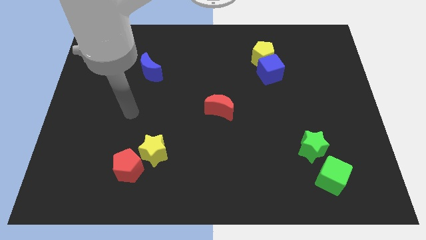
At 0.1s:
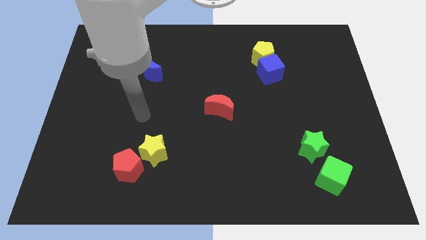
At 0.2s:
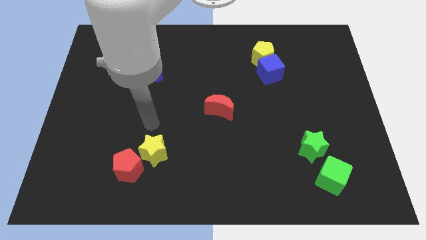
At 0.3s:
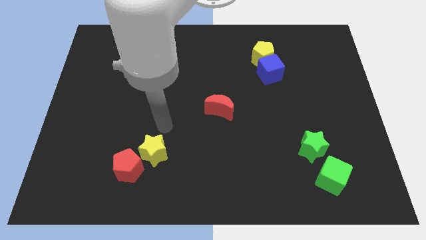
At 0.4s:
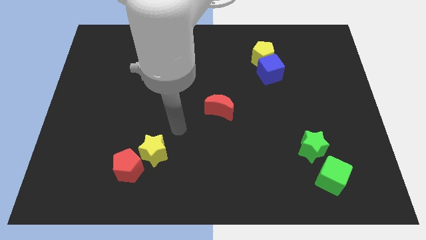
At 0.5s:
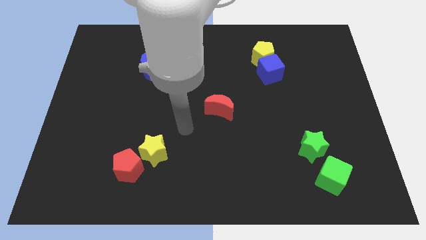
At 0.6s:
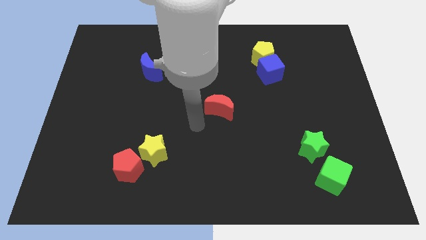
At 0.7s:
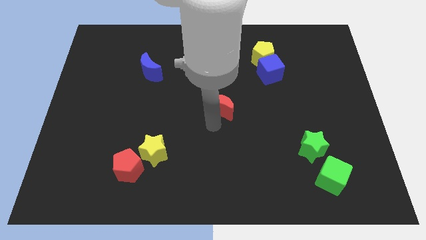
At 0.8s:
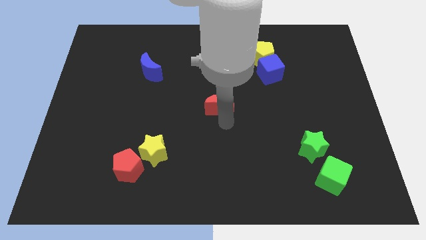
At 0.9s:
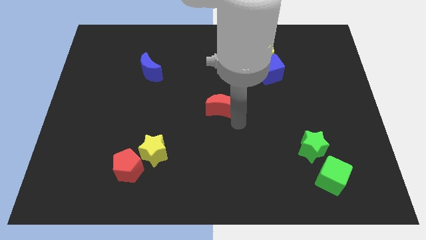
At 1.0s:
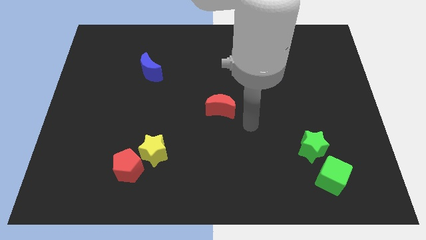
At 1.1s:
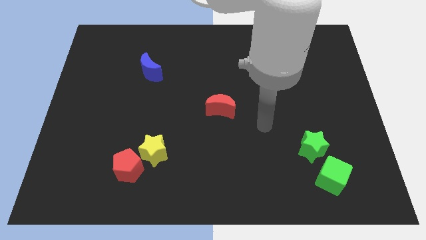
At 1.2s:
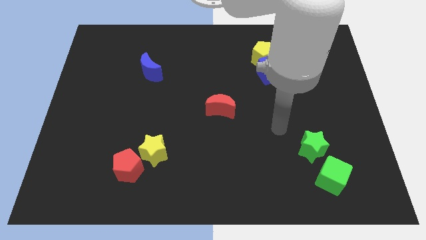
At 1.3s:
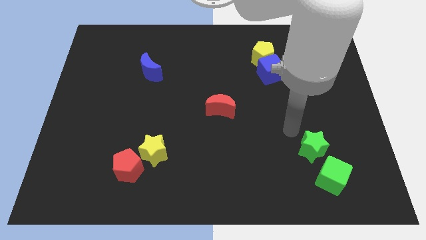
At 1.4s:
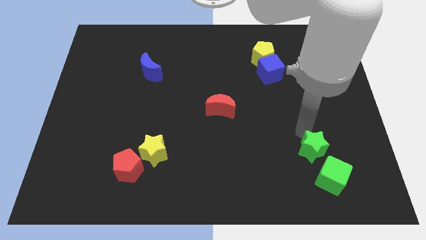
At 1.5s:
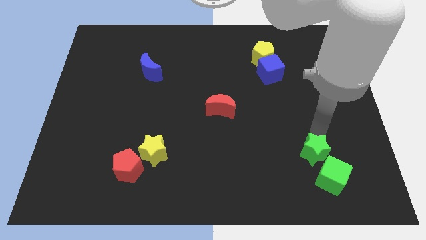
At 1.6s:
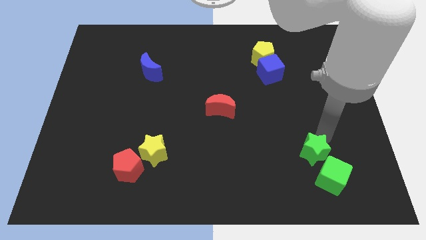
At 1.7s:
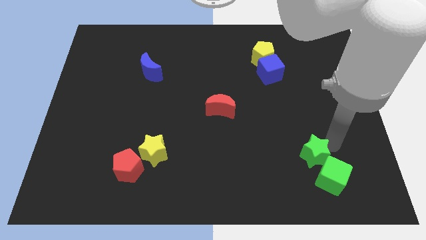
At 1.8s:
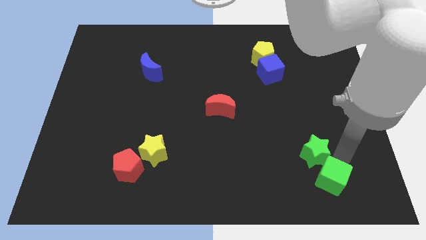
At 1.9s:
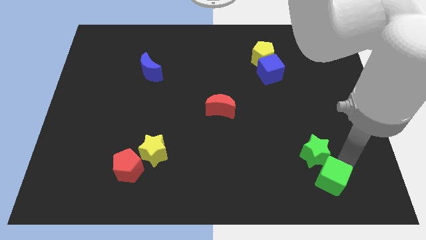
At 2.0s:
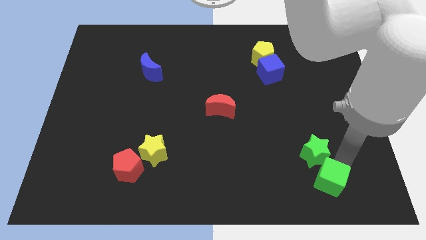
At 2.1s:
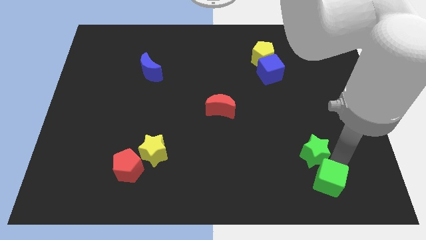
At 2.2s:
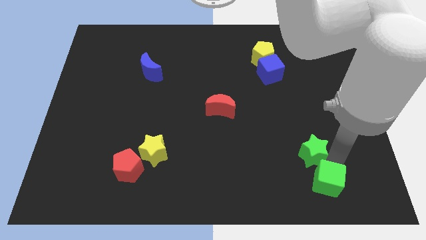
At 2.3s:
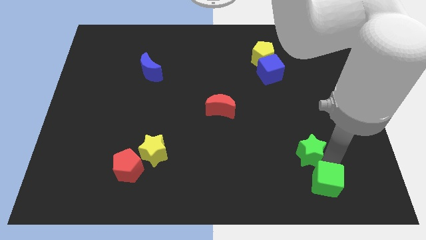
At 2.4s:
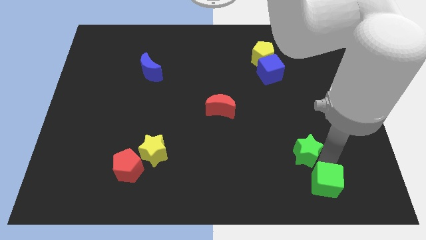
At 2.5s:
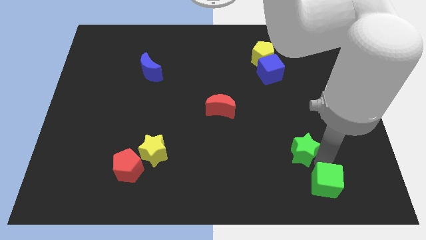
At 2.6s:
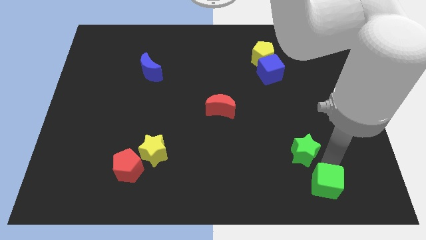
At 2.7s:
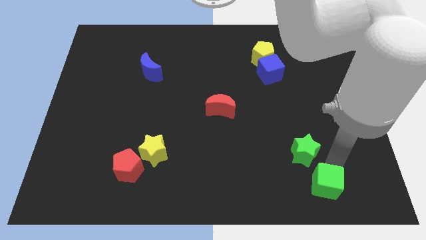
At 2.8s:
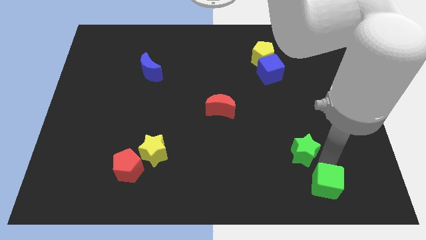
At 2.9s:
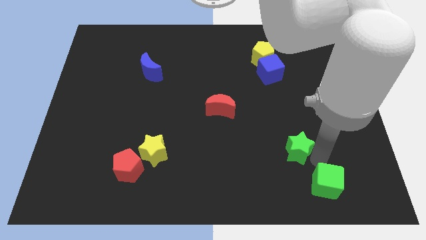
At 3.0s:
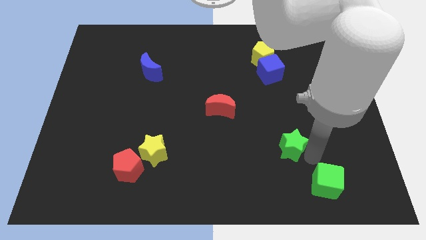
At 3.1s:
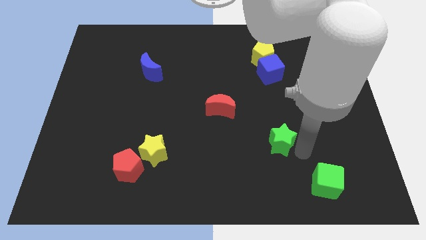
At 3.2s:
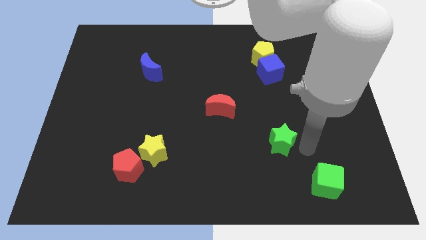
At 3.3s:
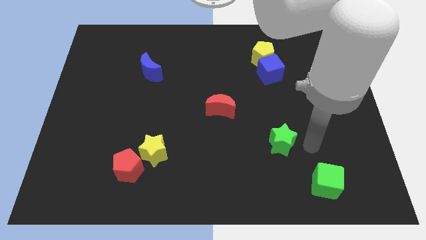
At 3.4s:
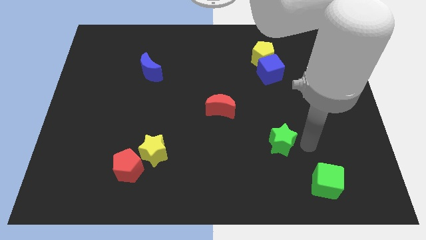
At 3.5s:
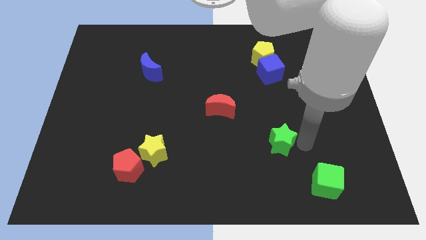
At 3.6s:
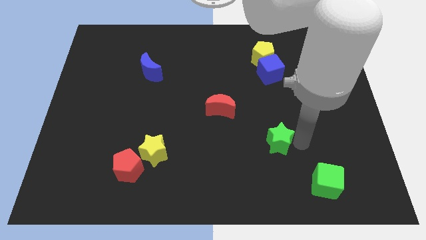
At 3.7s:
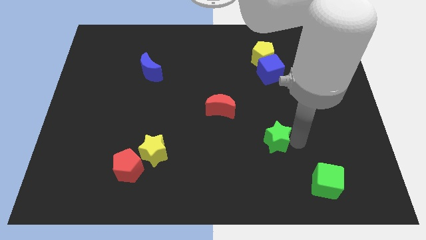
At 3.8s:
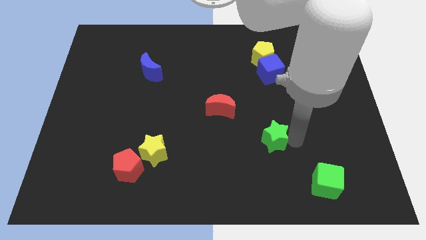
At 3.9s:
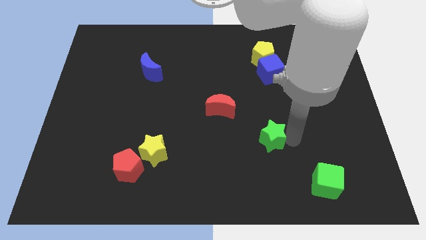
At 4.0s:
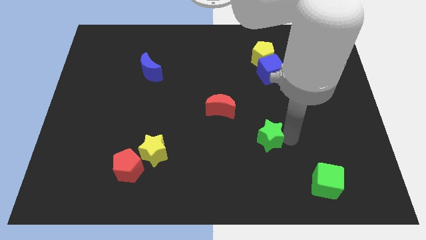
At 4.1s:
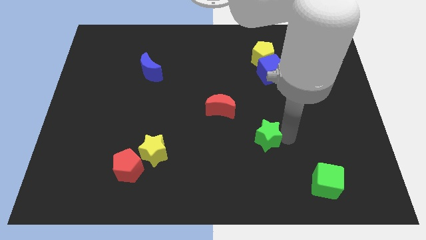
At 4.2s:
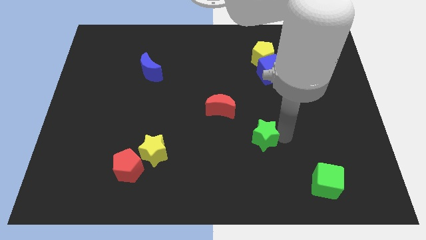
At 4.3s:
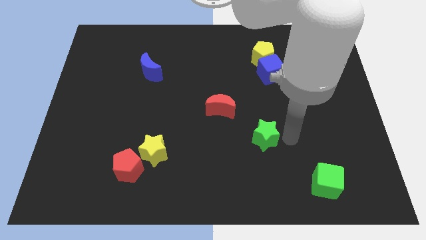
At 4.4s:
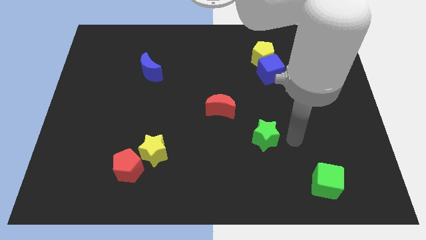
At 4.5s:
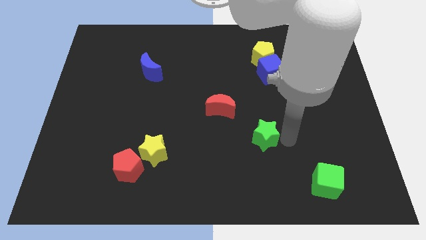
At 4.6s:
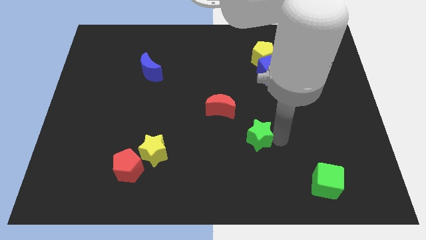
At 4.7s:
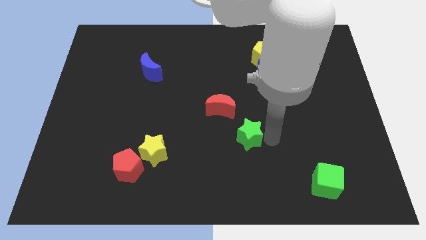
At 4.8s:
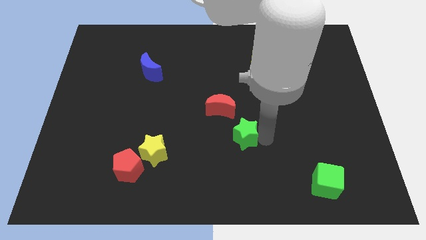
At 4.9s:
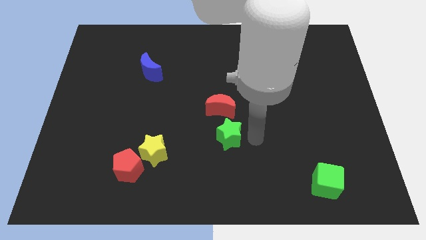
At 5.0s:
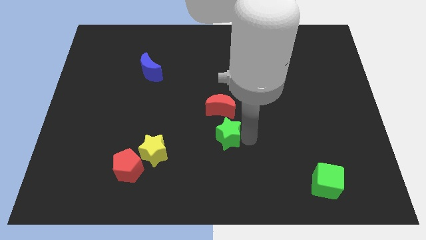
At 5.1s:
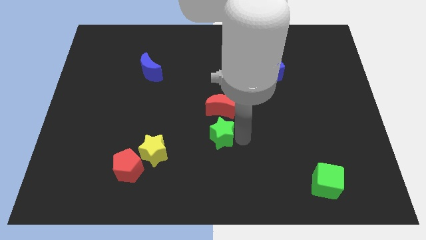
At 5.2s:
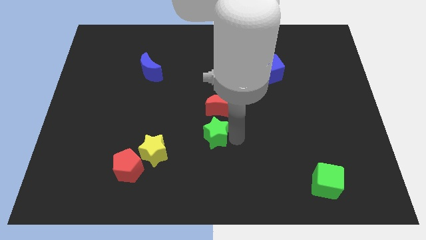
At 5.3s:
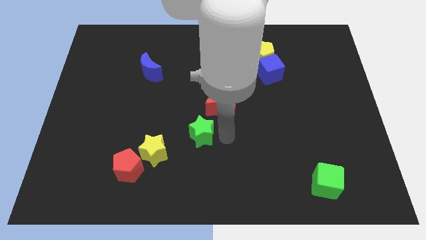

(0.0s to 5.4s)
slide the green star to the top right side of the yellow star

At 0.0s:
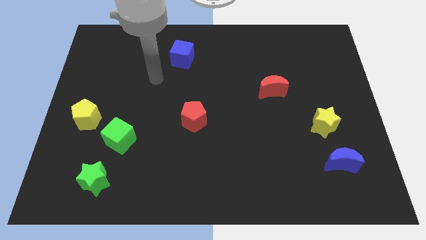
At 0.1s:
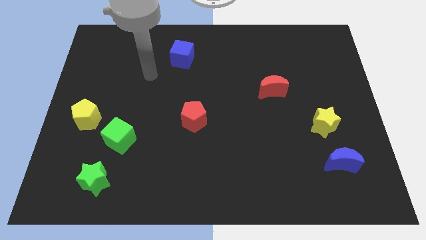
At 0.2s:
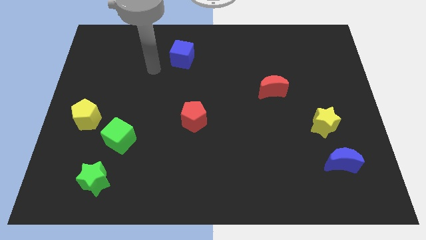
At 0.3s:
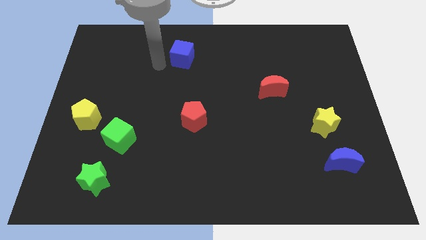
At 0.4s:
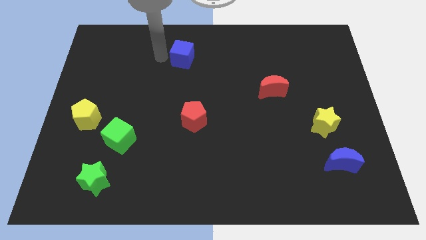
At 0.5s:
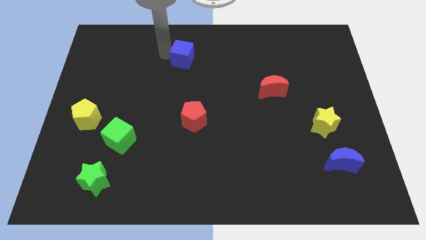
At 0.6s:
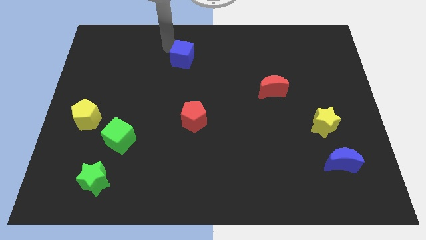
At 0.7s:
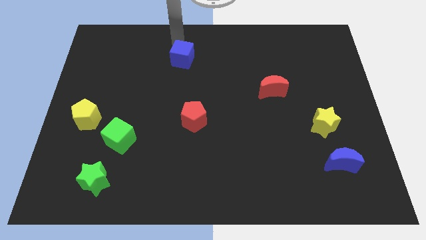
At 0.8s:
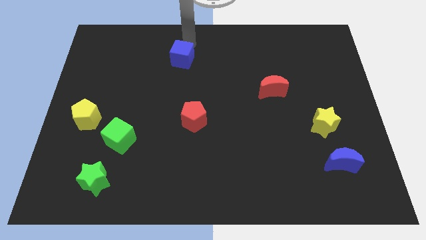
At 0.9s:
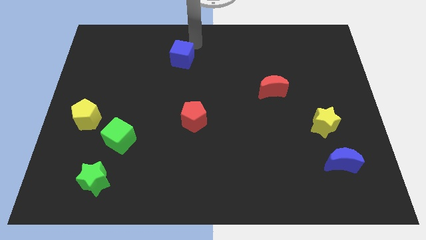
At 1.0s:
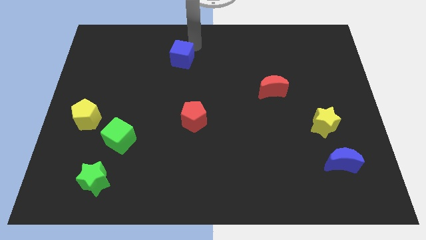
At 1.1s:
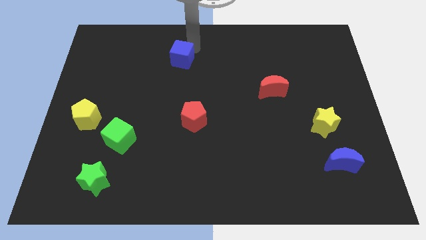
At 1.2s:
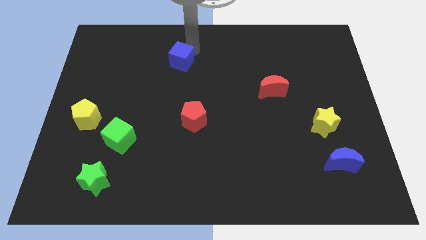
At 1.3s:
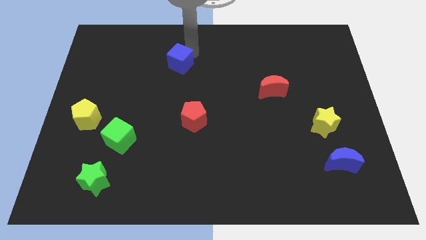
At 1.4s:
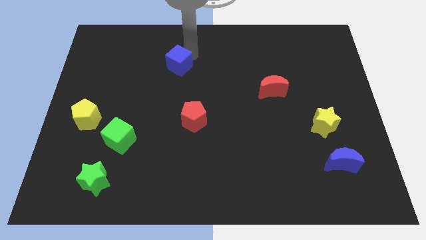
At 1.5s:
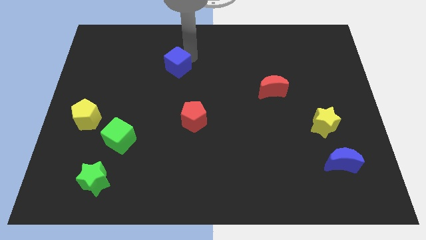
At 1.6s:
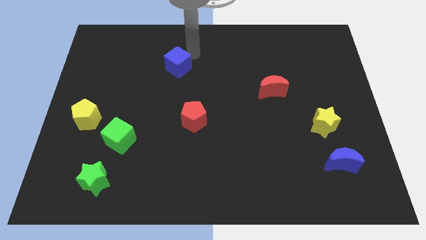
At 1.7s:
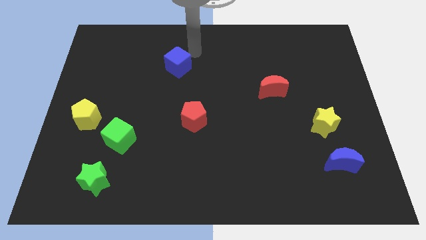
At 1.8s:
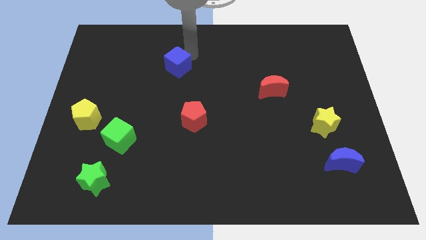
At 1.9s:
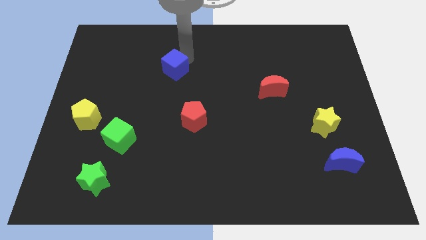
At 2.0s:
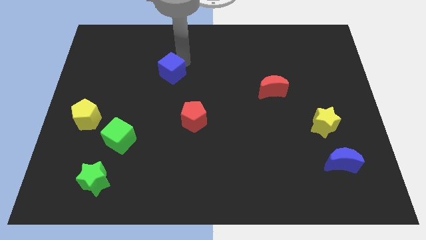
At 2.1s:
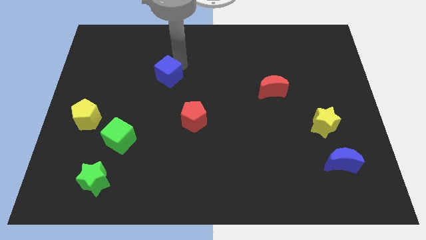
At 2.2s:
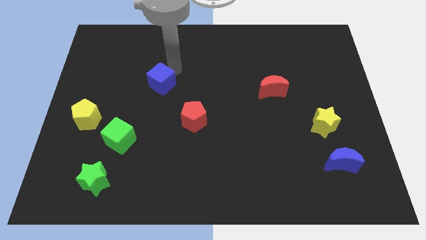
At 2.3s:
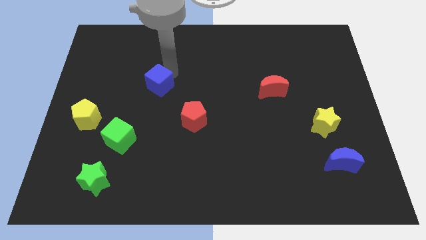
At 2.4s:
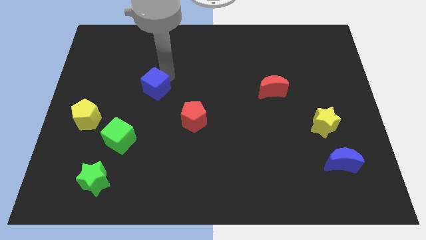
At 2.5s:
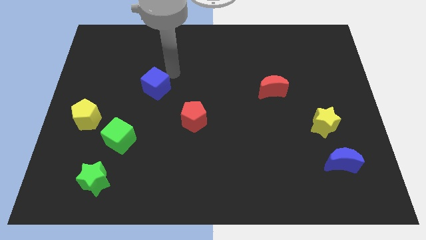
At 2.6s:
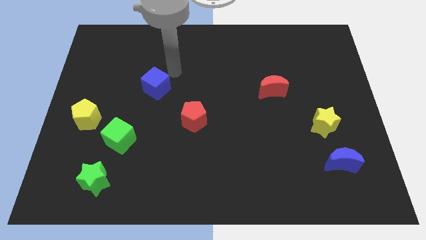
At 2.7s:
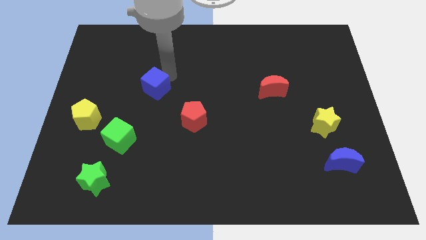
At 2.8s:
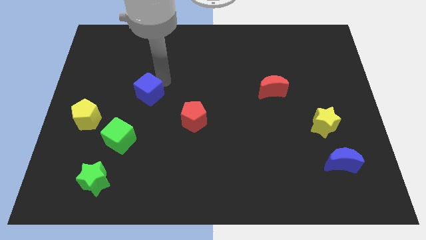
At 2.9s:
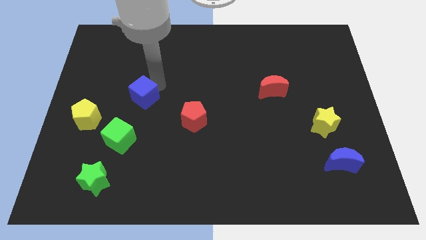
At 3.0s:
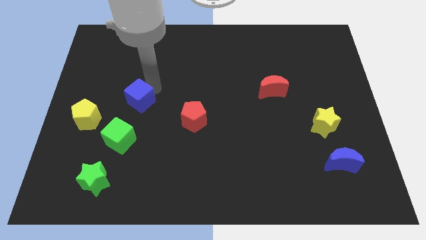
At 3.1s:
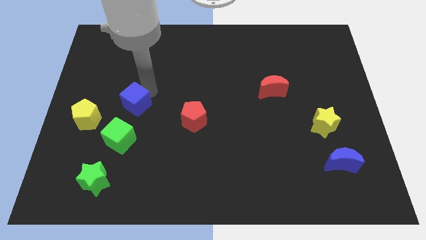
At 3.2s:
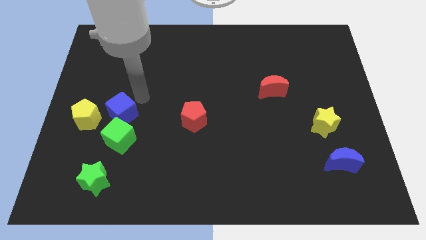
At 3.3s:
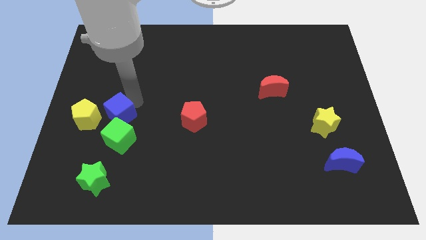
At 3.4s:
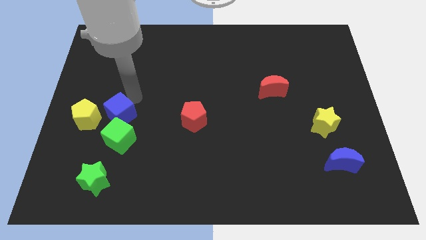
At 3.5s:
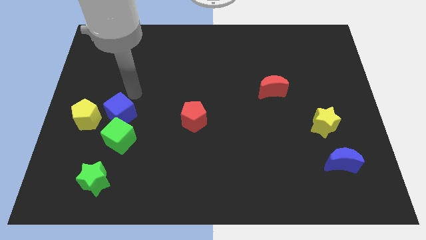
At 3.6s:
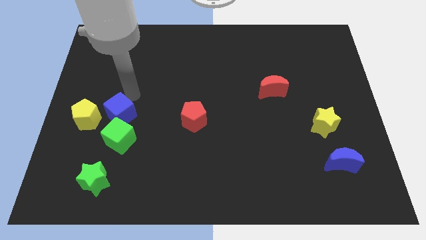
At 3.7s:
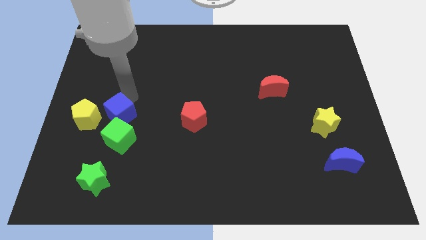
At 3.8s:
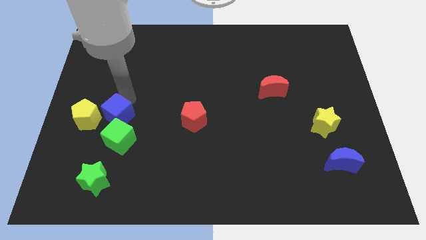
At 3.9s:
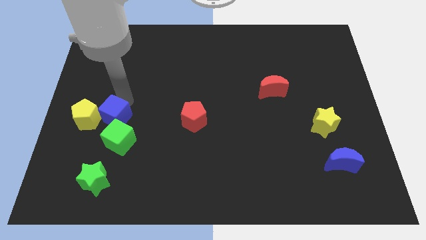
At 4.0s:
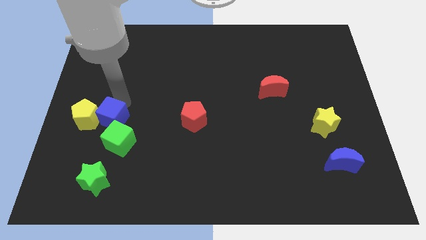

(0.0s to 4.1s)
put the blue cube above the green star
